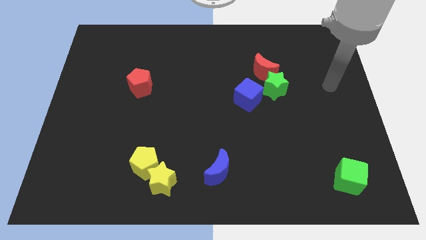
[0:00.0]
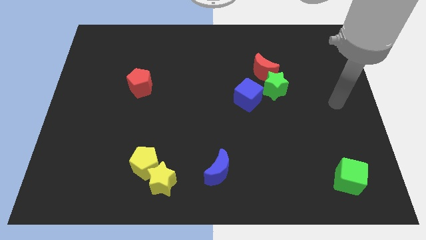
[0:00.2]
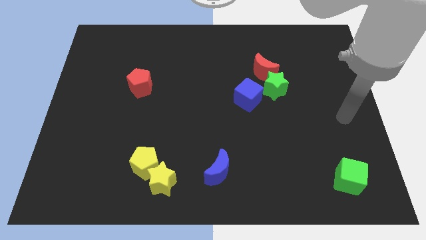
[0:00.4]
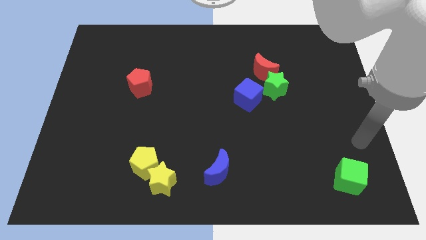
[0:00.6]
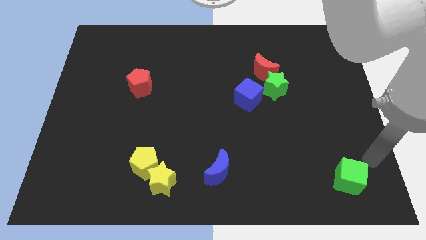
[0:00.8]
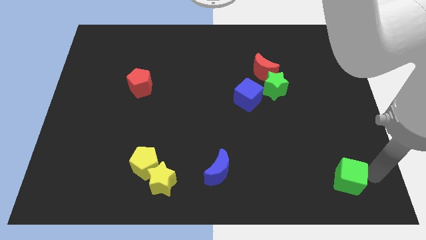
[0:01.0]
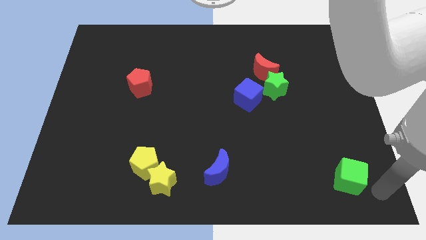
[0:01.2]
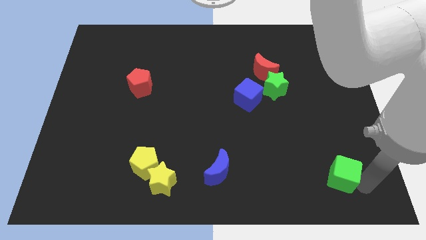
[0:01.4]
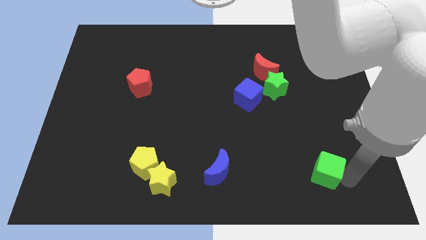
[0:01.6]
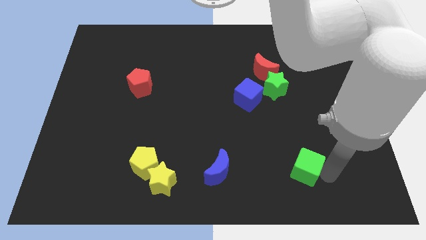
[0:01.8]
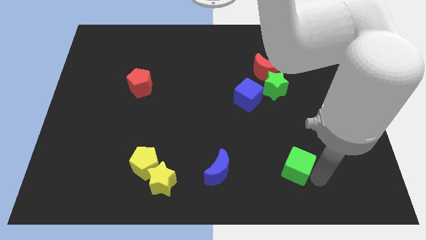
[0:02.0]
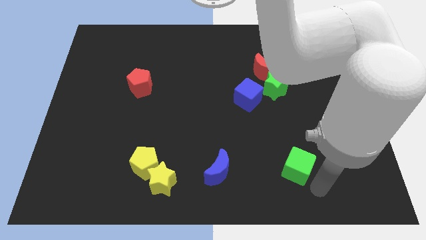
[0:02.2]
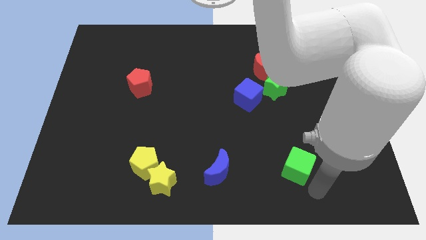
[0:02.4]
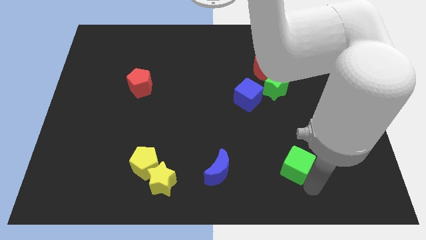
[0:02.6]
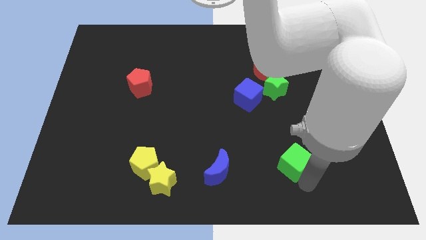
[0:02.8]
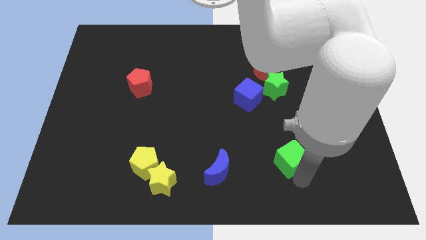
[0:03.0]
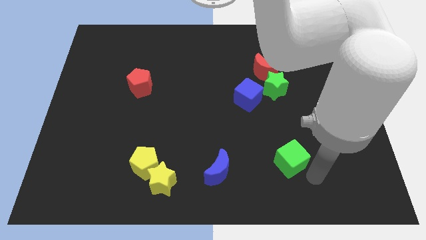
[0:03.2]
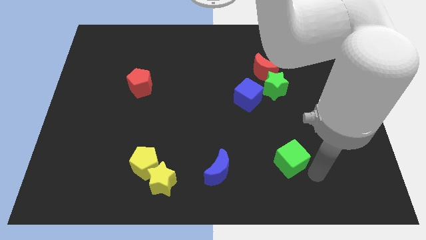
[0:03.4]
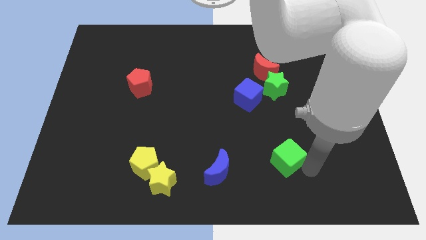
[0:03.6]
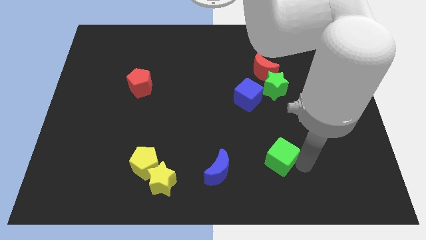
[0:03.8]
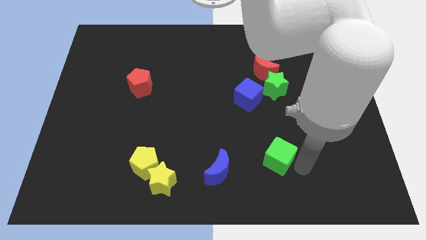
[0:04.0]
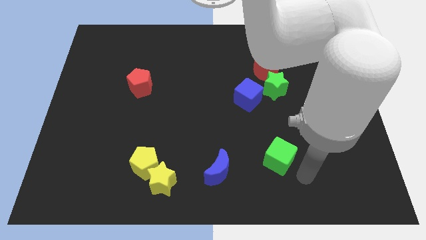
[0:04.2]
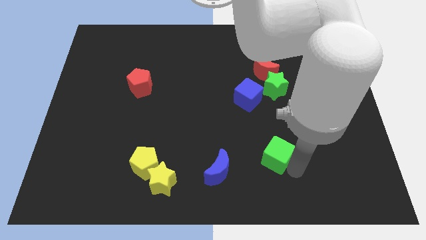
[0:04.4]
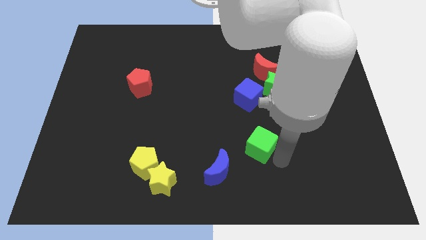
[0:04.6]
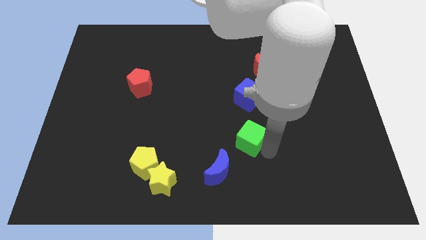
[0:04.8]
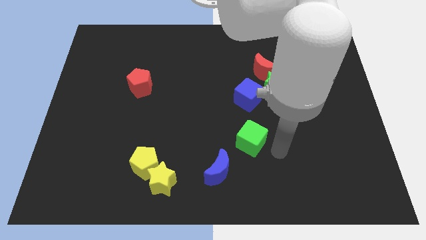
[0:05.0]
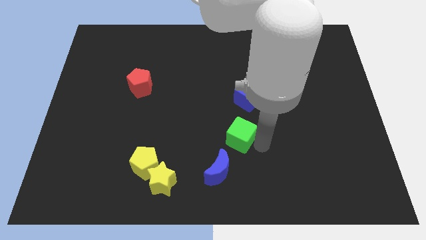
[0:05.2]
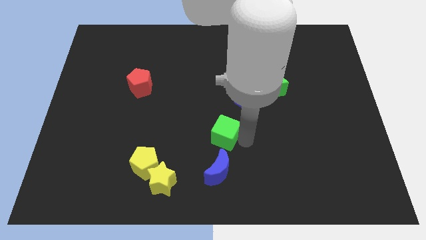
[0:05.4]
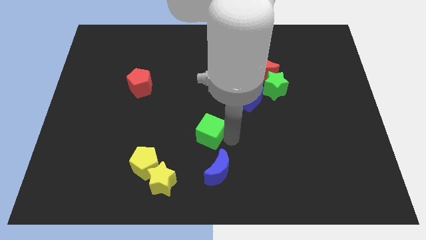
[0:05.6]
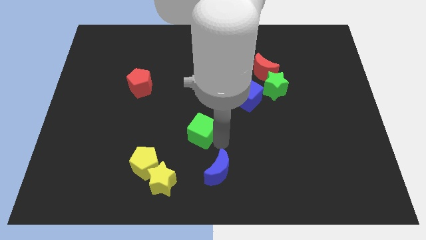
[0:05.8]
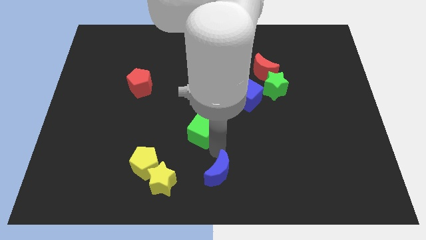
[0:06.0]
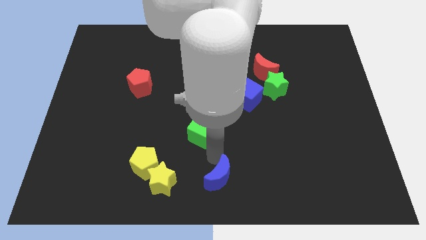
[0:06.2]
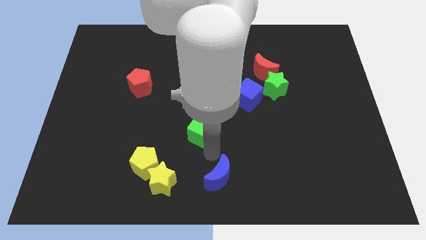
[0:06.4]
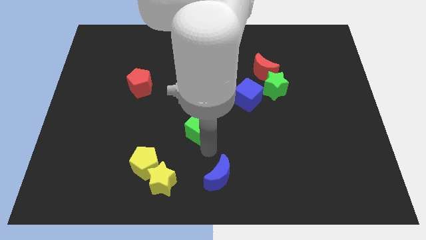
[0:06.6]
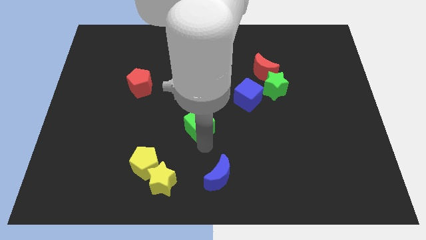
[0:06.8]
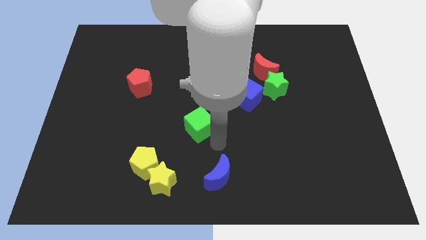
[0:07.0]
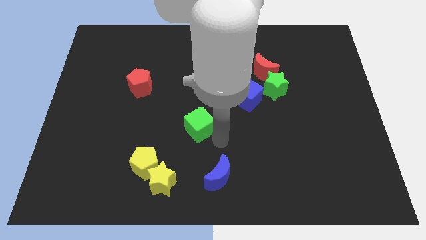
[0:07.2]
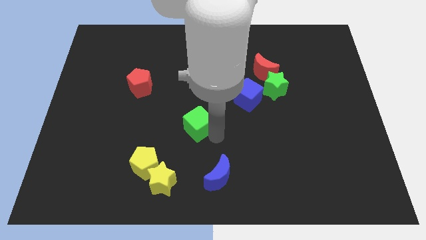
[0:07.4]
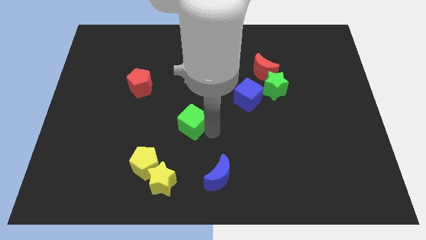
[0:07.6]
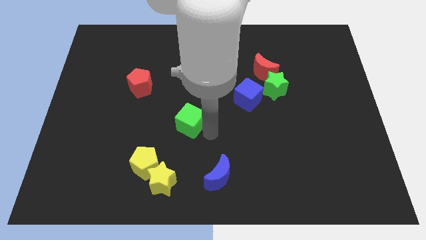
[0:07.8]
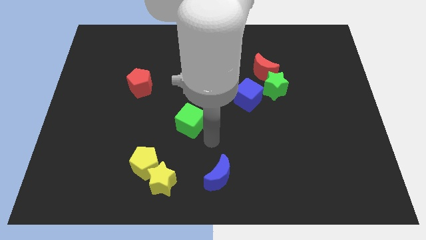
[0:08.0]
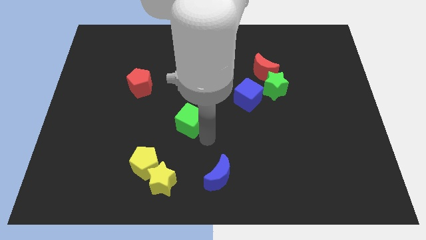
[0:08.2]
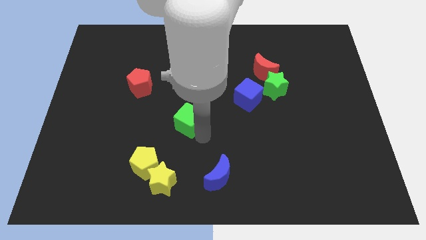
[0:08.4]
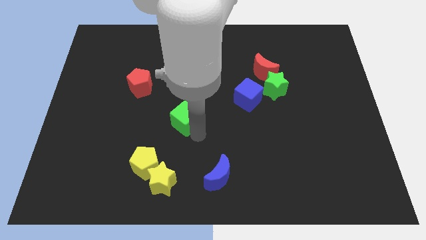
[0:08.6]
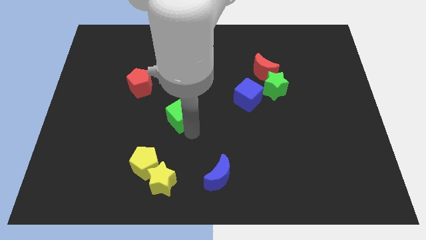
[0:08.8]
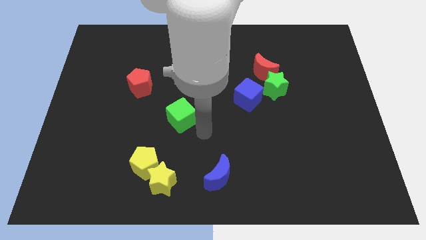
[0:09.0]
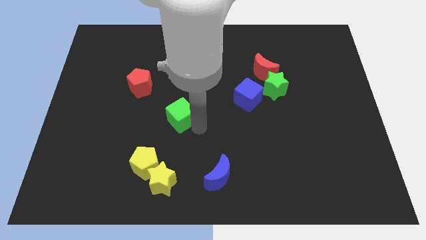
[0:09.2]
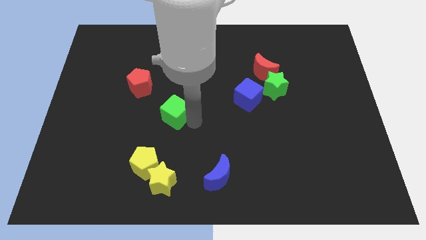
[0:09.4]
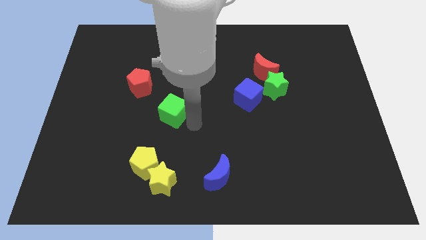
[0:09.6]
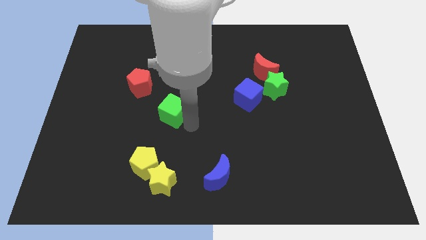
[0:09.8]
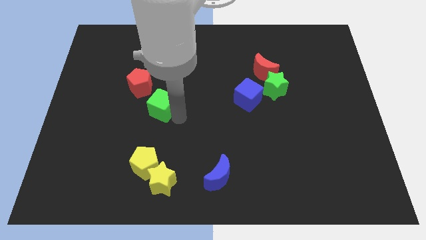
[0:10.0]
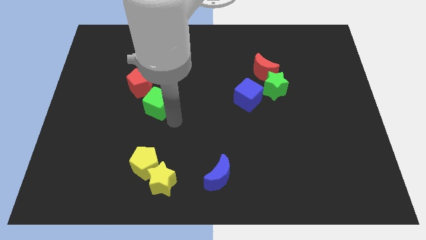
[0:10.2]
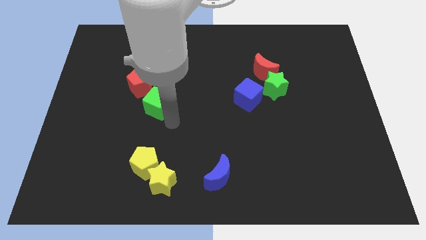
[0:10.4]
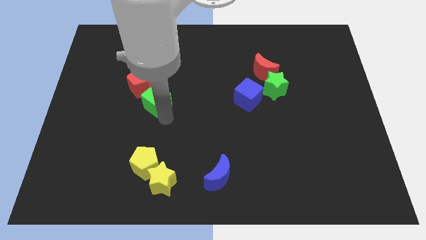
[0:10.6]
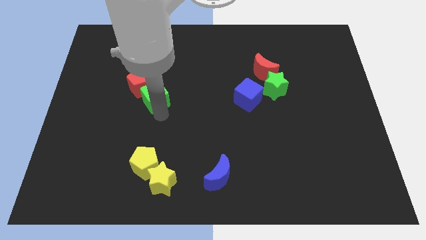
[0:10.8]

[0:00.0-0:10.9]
slide the green cube towards the red pentagon

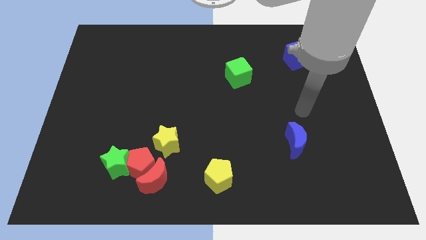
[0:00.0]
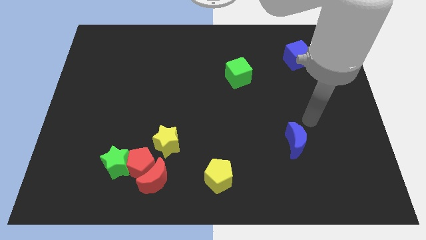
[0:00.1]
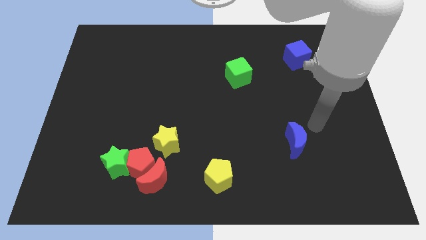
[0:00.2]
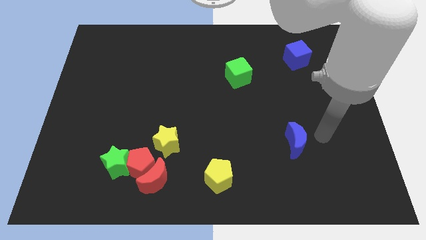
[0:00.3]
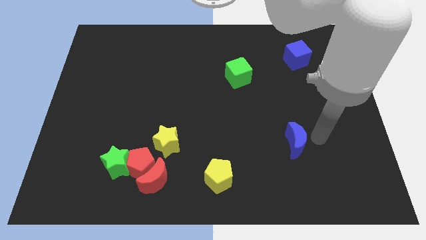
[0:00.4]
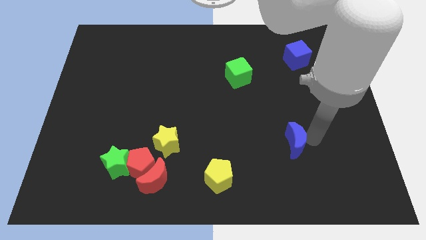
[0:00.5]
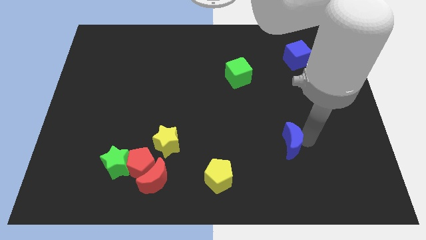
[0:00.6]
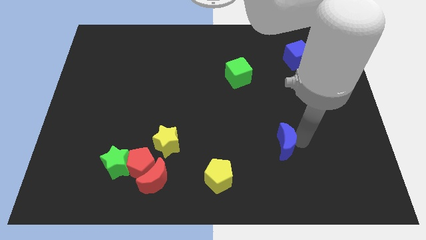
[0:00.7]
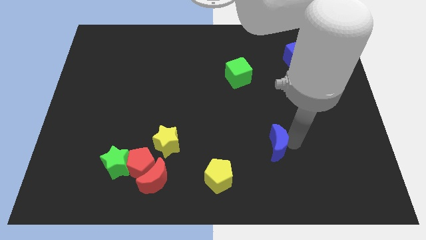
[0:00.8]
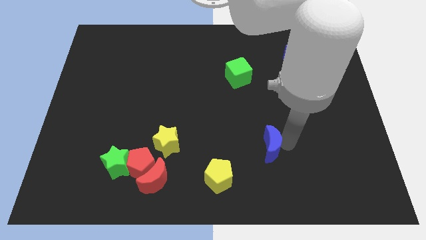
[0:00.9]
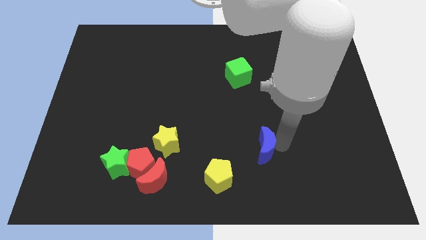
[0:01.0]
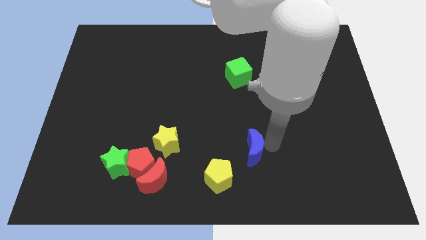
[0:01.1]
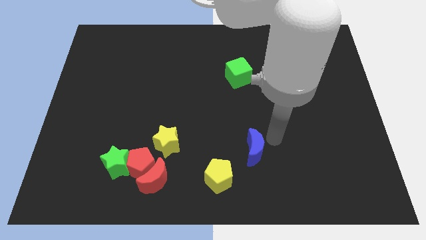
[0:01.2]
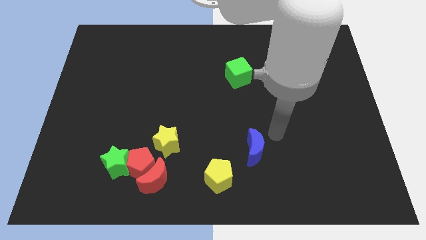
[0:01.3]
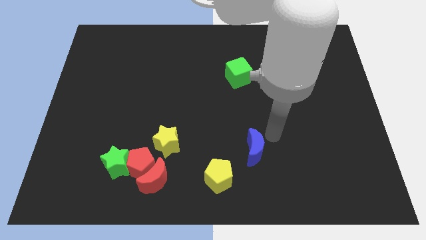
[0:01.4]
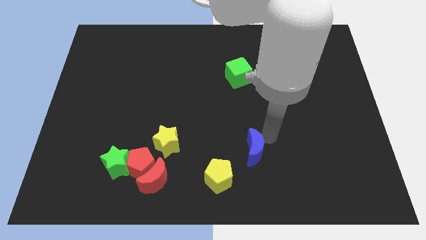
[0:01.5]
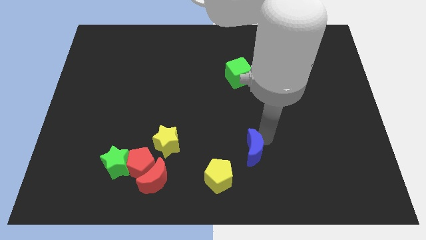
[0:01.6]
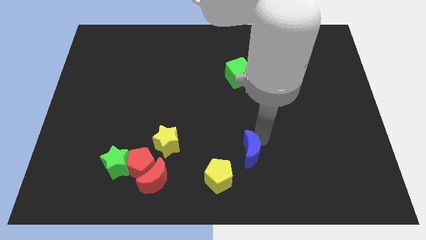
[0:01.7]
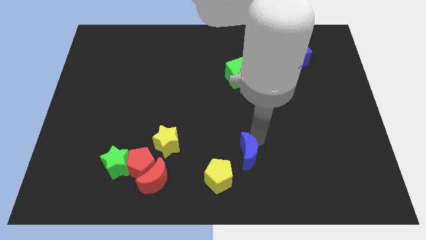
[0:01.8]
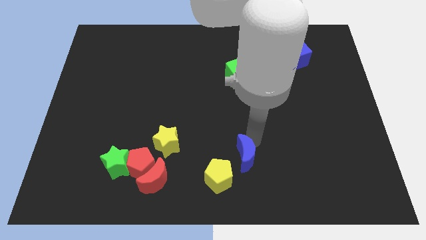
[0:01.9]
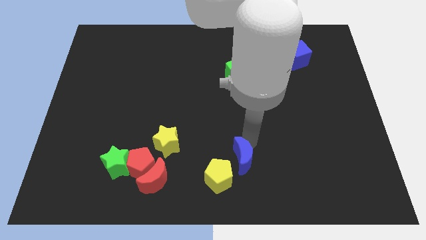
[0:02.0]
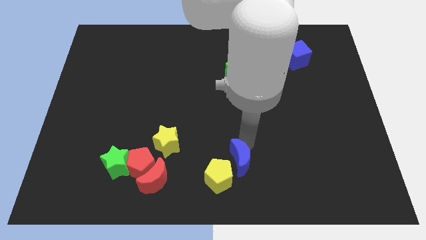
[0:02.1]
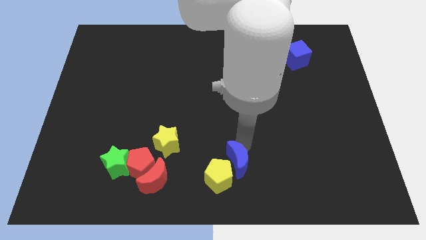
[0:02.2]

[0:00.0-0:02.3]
put the blue moon towards the yellow pentagon

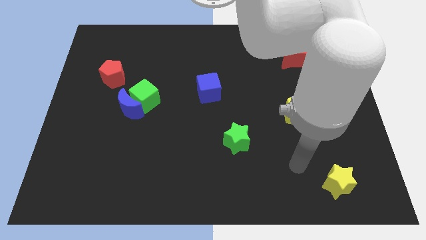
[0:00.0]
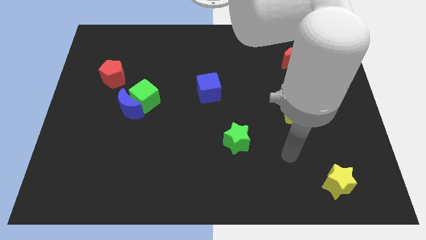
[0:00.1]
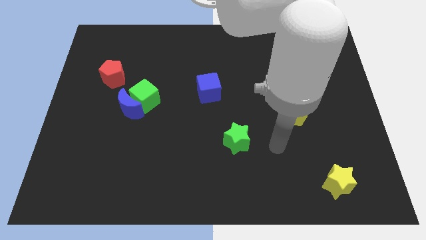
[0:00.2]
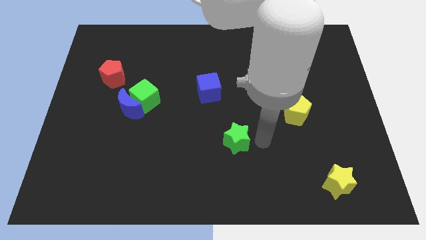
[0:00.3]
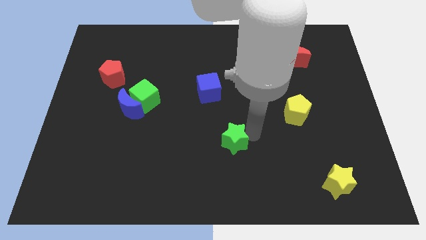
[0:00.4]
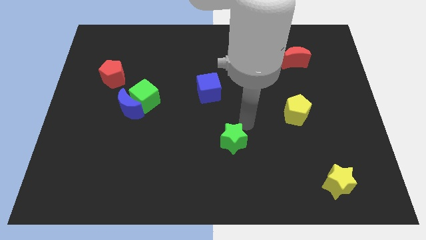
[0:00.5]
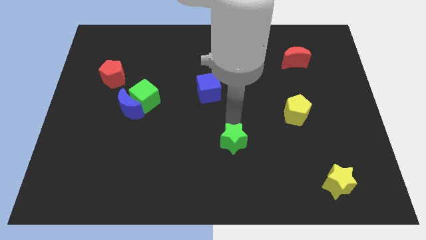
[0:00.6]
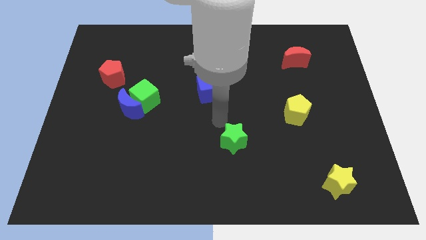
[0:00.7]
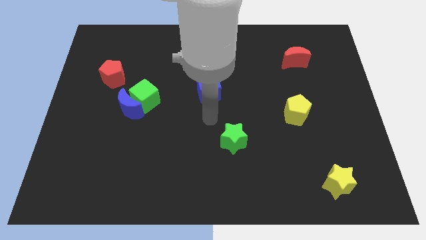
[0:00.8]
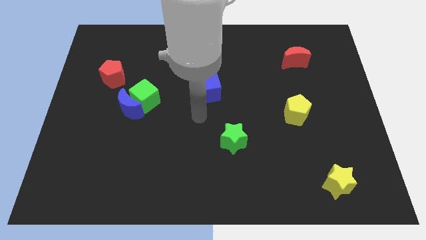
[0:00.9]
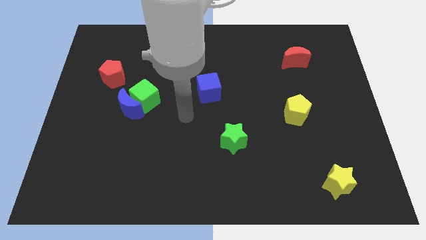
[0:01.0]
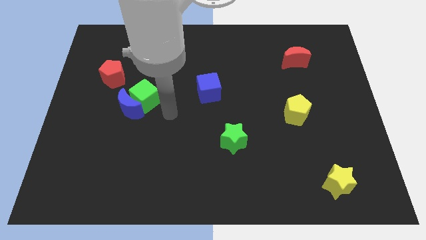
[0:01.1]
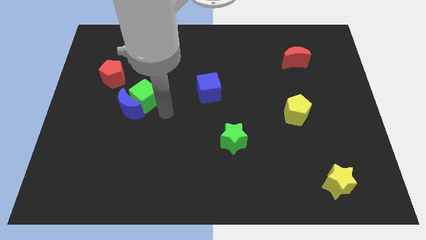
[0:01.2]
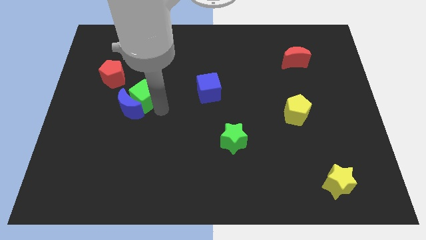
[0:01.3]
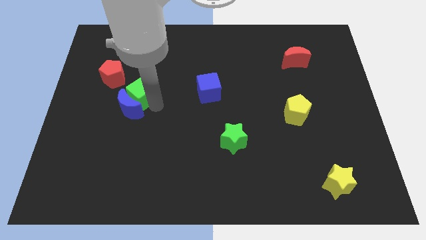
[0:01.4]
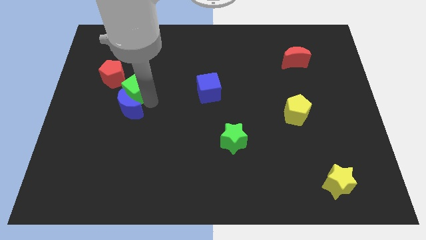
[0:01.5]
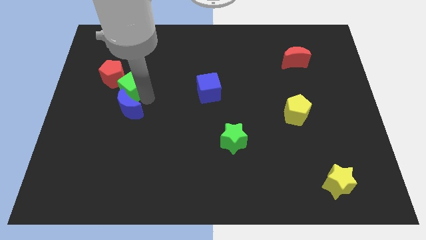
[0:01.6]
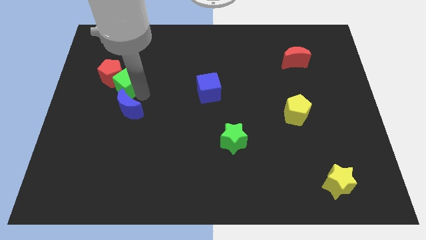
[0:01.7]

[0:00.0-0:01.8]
push the green cube next to the red pentagon
